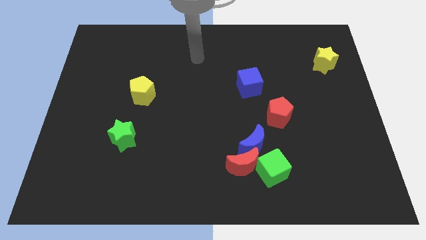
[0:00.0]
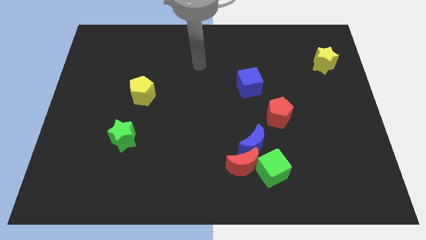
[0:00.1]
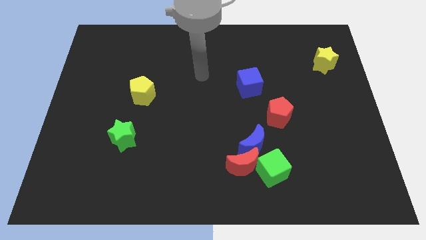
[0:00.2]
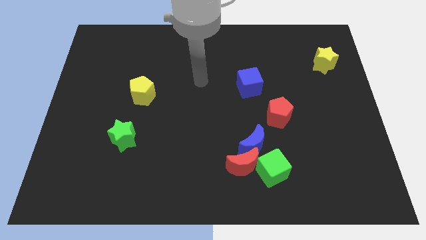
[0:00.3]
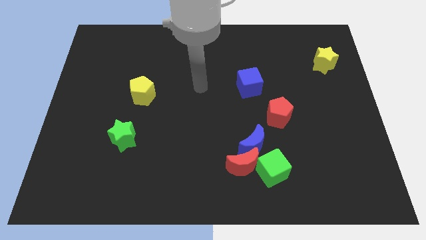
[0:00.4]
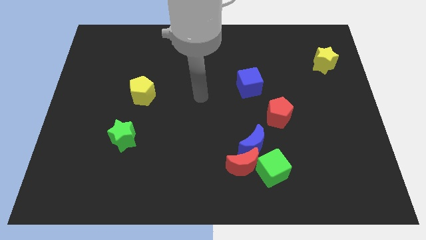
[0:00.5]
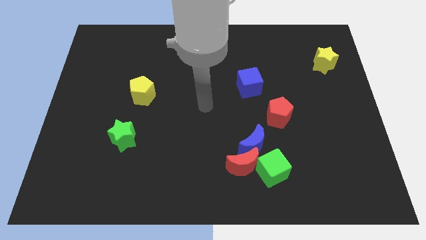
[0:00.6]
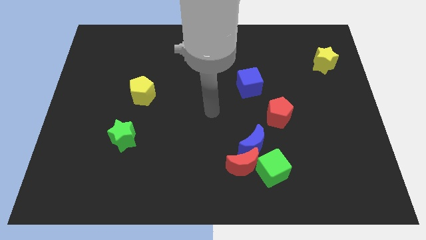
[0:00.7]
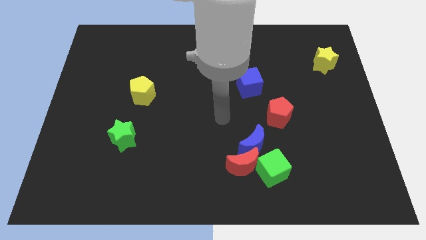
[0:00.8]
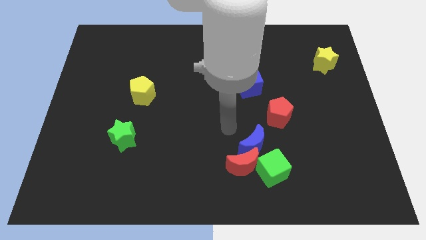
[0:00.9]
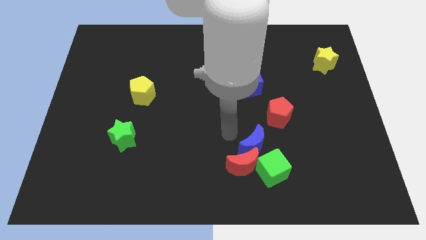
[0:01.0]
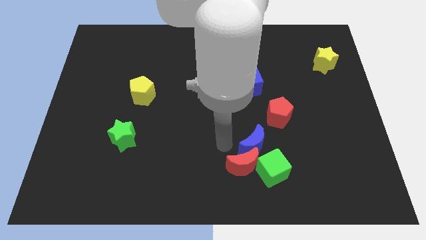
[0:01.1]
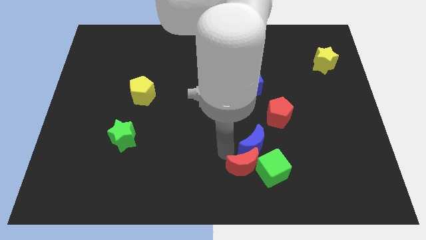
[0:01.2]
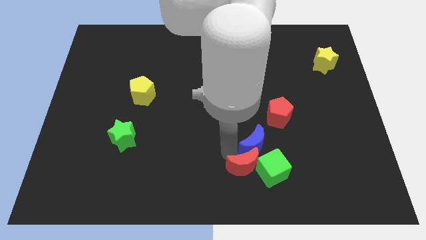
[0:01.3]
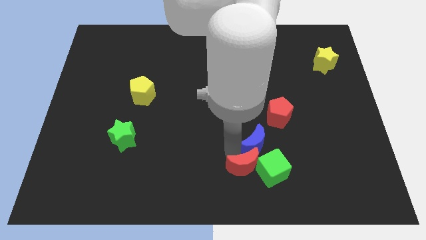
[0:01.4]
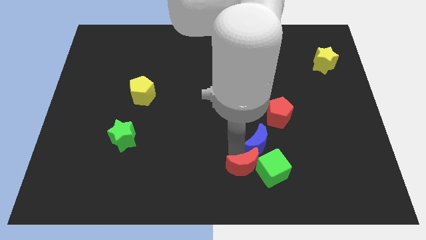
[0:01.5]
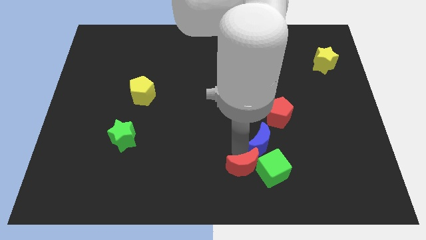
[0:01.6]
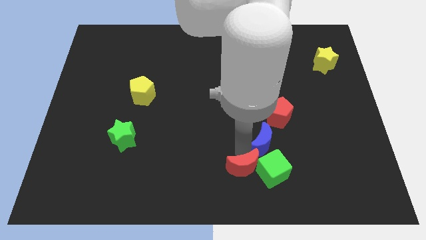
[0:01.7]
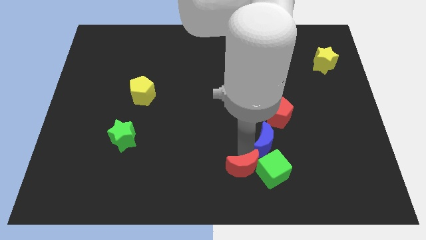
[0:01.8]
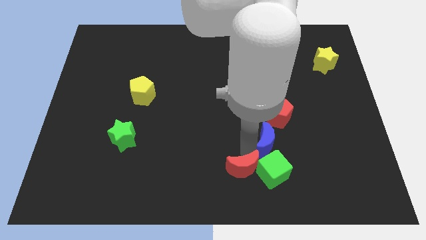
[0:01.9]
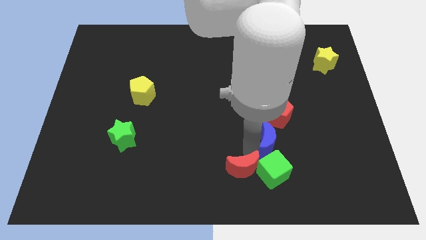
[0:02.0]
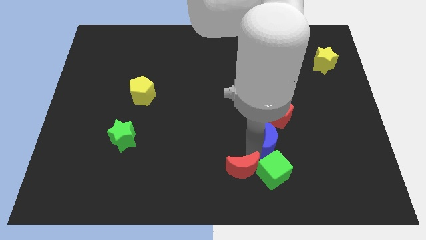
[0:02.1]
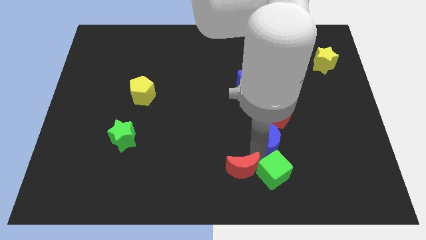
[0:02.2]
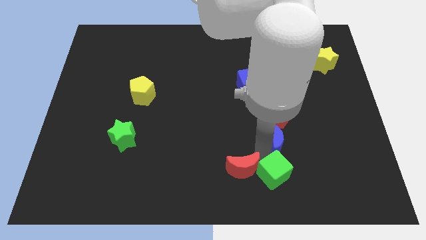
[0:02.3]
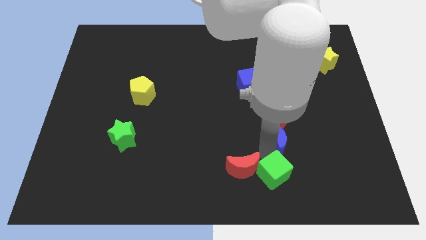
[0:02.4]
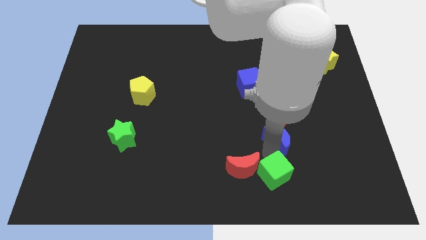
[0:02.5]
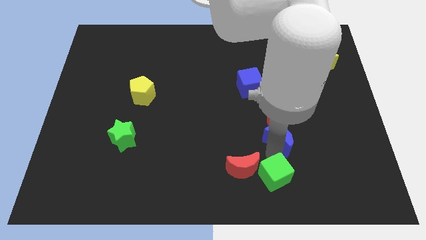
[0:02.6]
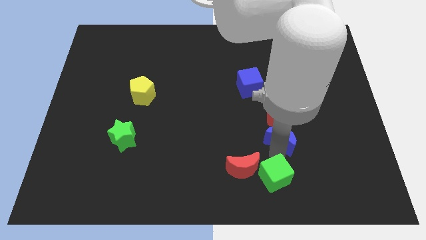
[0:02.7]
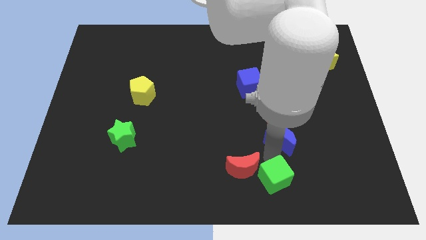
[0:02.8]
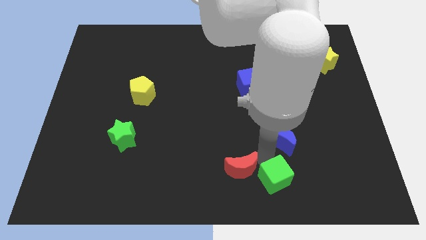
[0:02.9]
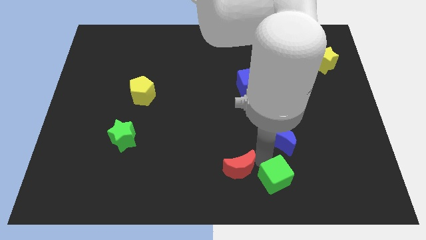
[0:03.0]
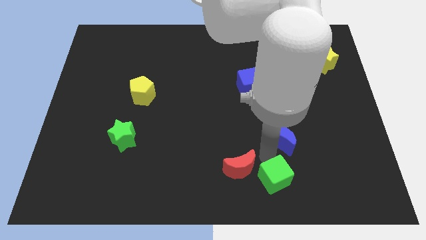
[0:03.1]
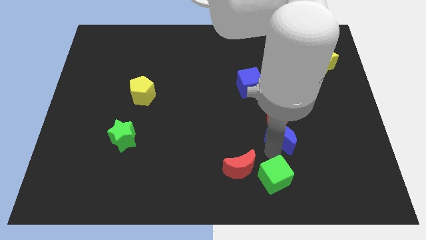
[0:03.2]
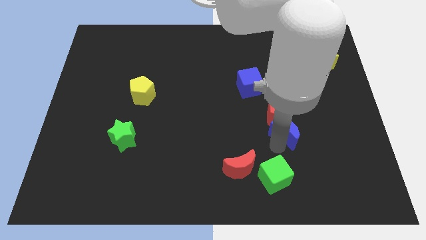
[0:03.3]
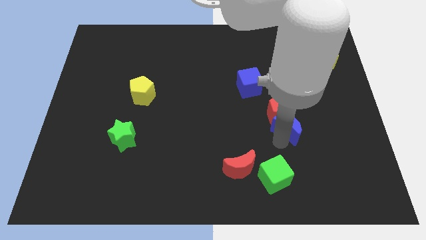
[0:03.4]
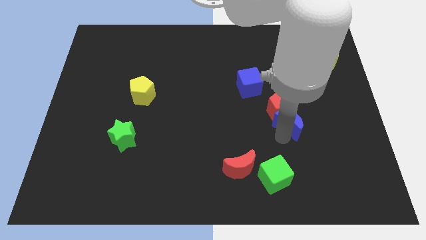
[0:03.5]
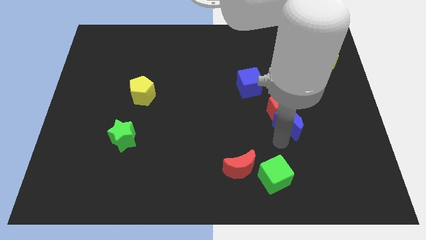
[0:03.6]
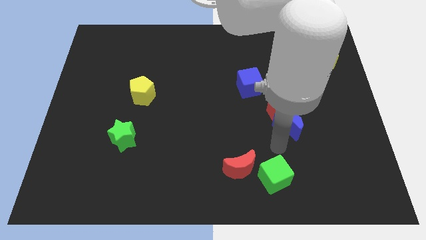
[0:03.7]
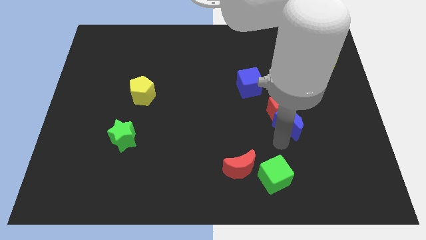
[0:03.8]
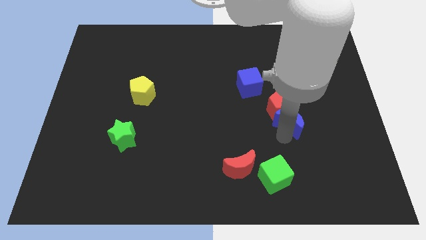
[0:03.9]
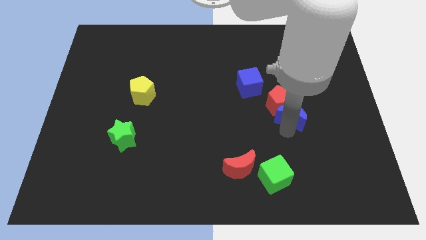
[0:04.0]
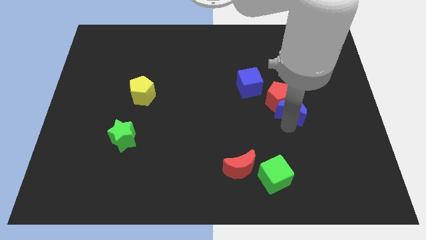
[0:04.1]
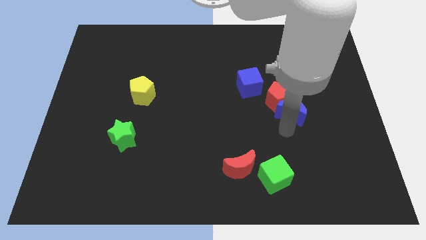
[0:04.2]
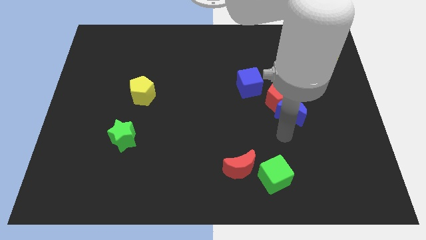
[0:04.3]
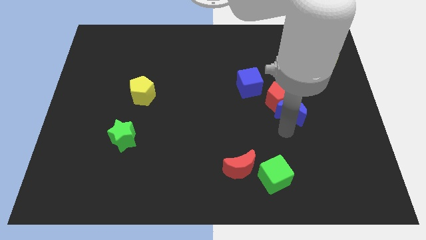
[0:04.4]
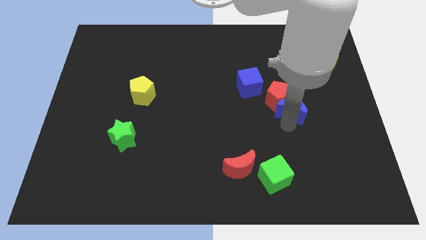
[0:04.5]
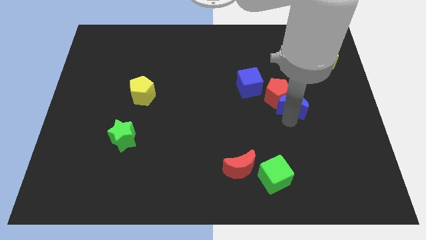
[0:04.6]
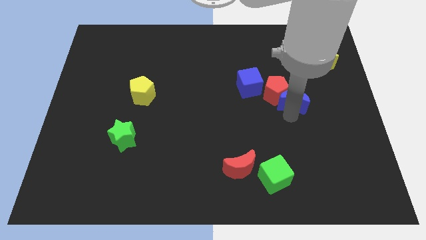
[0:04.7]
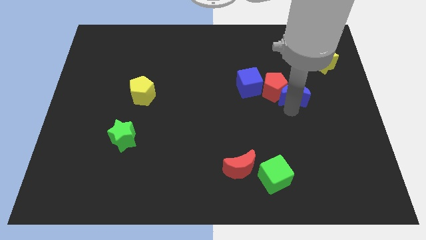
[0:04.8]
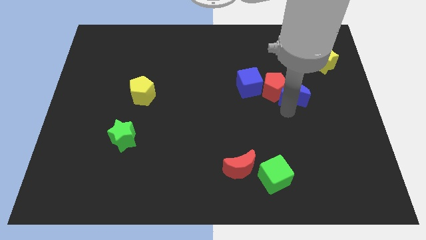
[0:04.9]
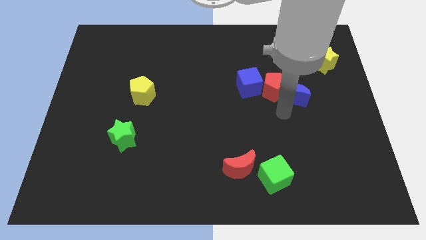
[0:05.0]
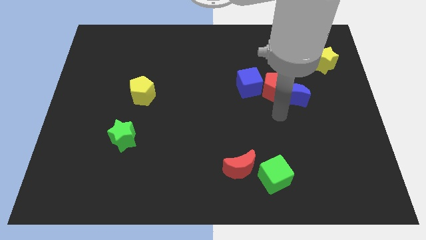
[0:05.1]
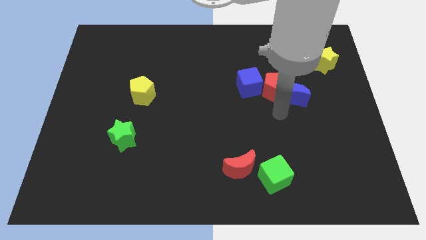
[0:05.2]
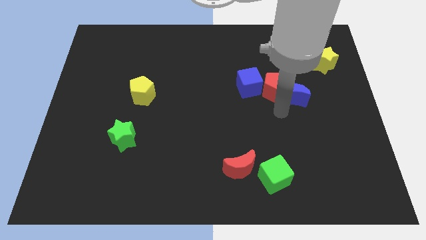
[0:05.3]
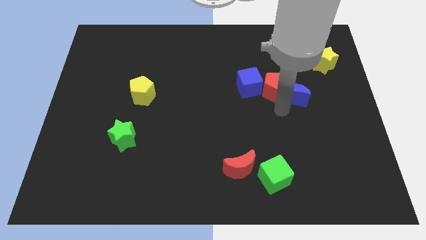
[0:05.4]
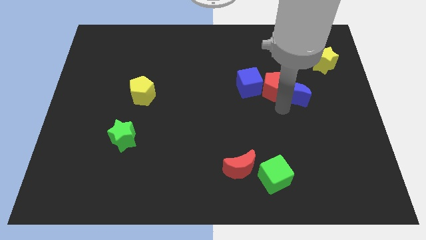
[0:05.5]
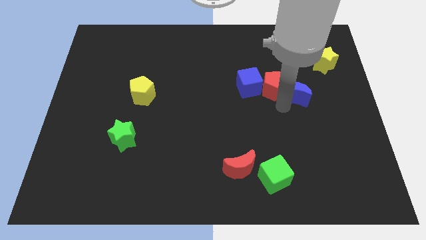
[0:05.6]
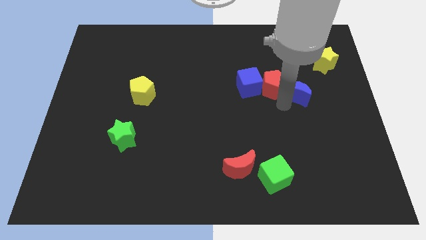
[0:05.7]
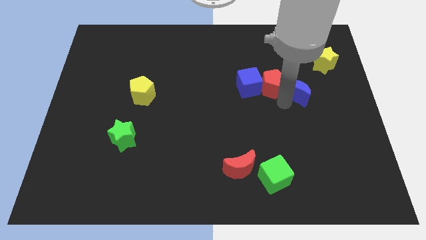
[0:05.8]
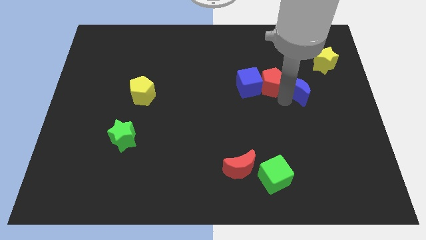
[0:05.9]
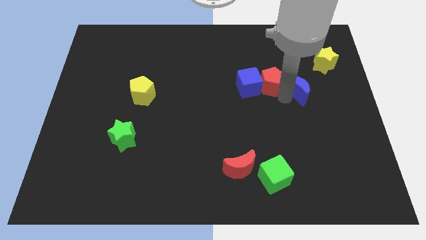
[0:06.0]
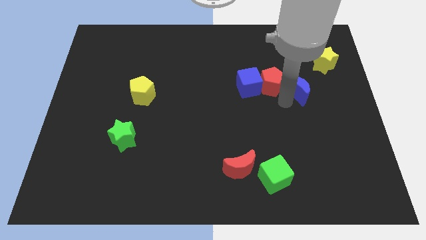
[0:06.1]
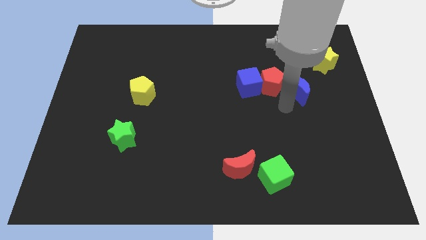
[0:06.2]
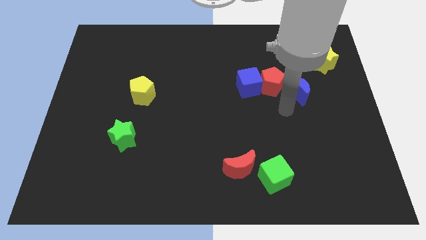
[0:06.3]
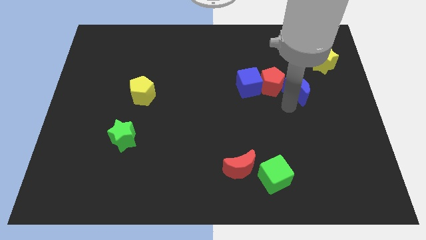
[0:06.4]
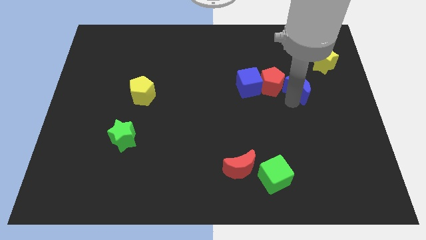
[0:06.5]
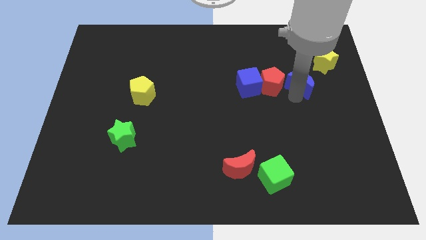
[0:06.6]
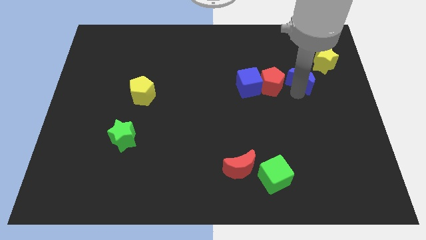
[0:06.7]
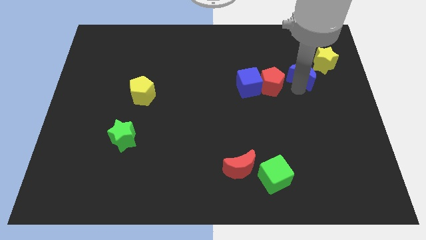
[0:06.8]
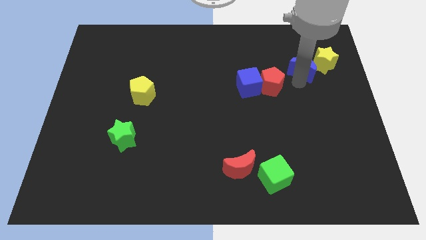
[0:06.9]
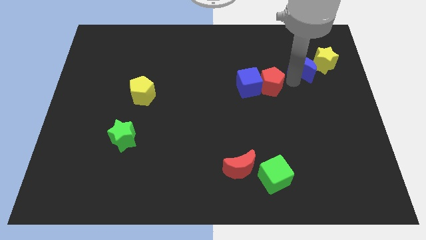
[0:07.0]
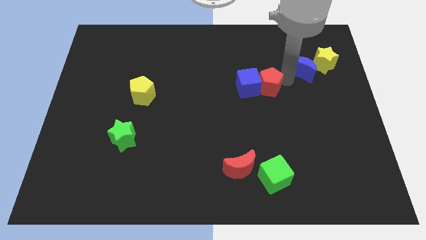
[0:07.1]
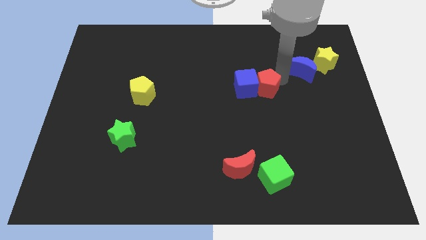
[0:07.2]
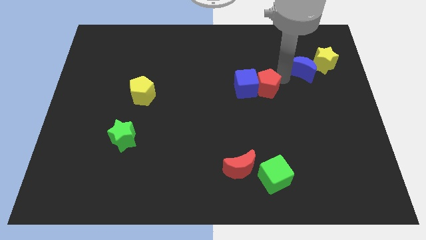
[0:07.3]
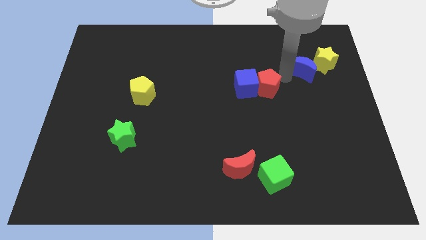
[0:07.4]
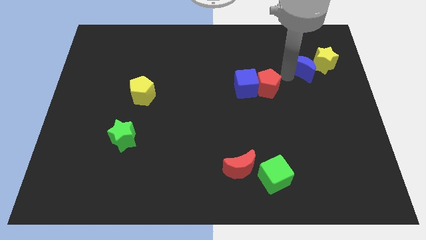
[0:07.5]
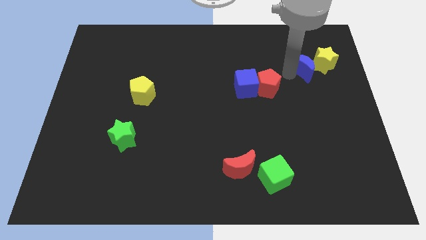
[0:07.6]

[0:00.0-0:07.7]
push the blue moon towards the yellow star
